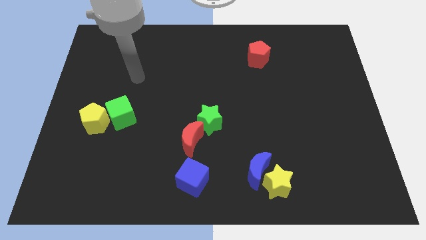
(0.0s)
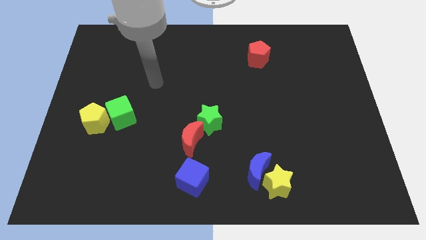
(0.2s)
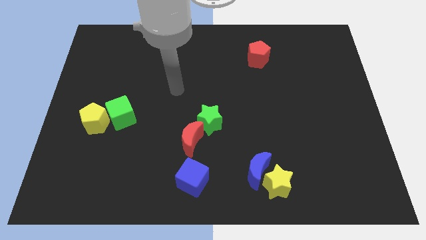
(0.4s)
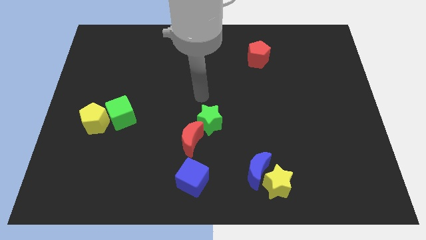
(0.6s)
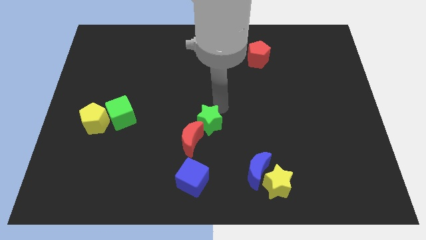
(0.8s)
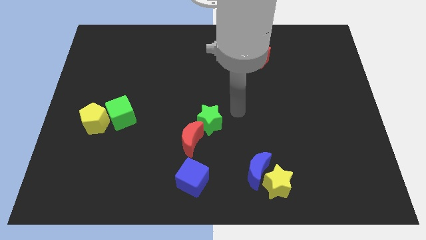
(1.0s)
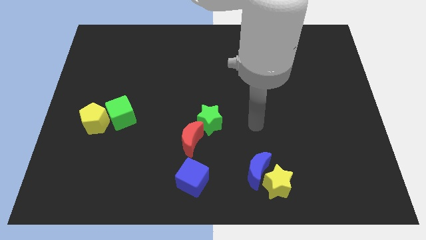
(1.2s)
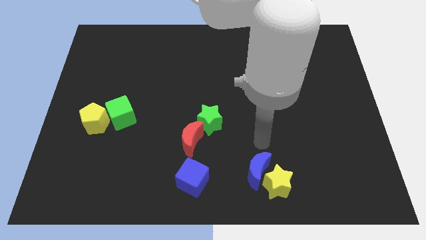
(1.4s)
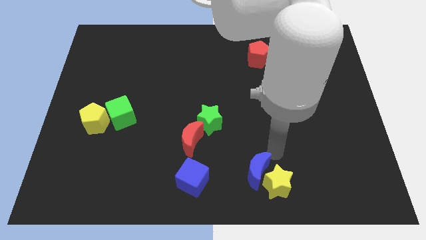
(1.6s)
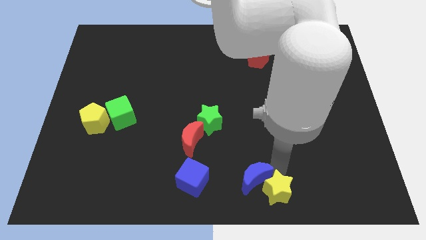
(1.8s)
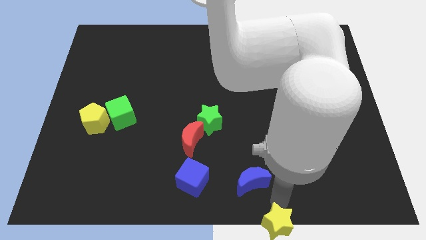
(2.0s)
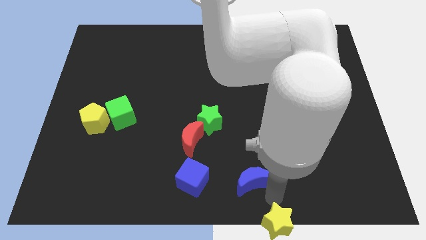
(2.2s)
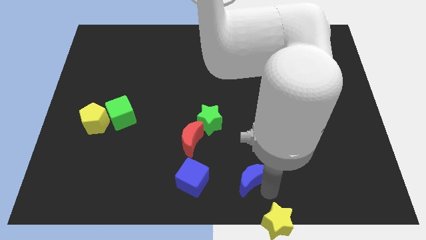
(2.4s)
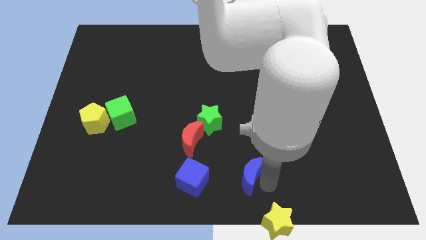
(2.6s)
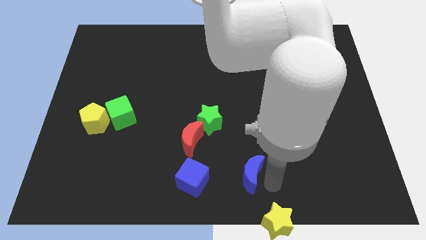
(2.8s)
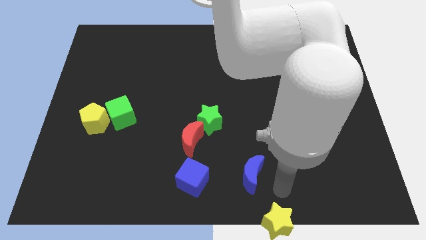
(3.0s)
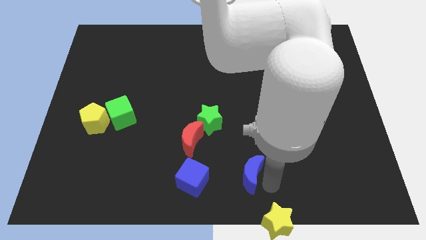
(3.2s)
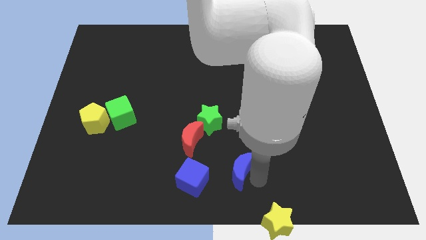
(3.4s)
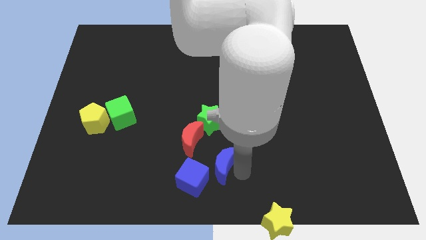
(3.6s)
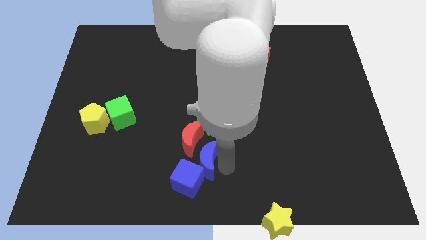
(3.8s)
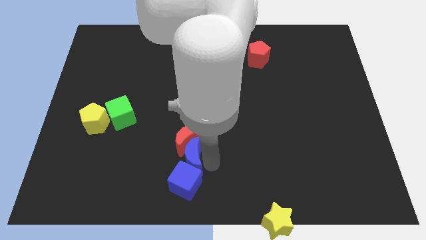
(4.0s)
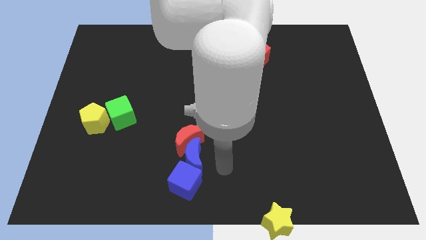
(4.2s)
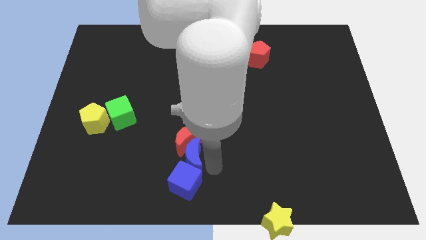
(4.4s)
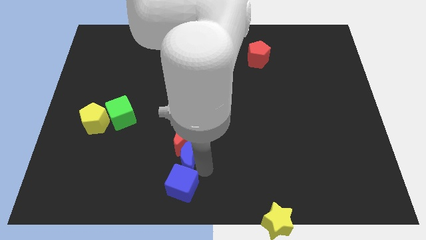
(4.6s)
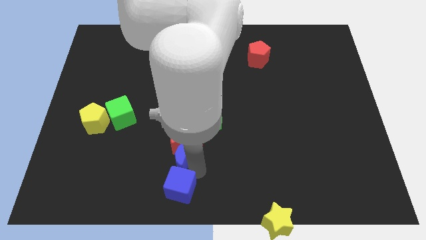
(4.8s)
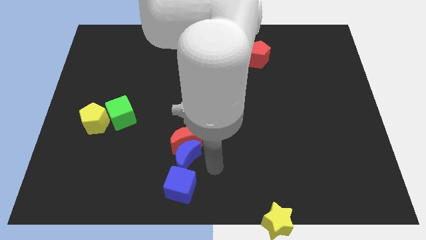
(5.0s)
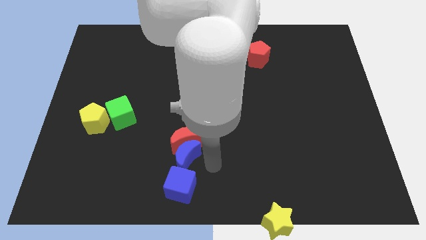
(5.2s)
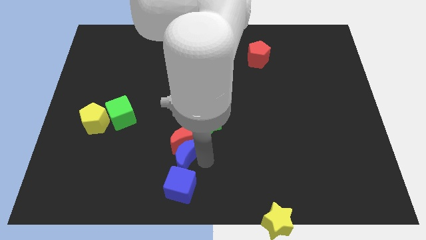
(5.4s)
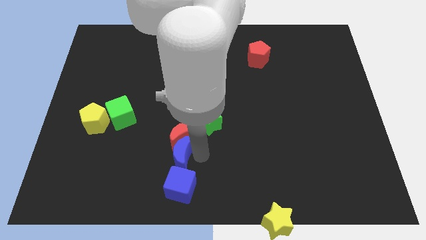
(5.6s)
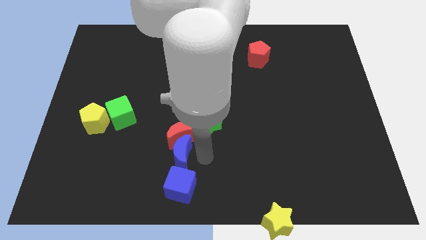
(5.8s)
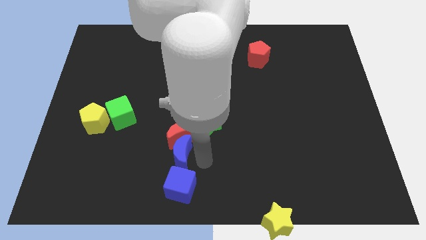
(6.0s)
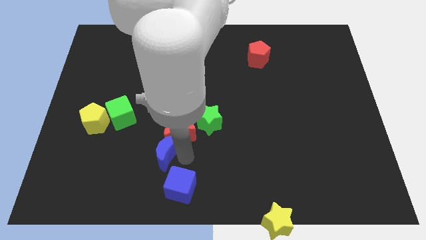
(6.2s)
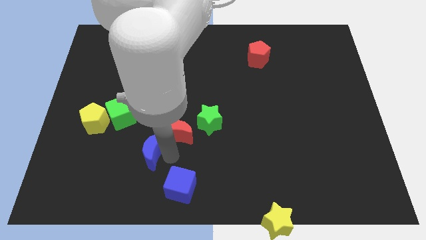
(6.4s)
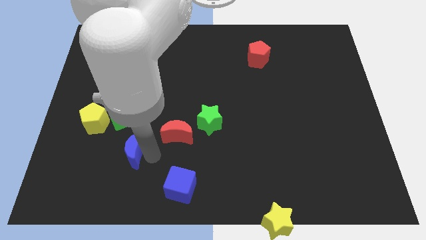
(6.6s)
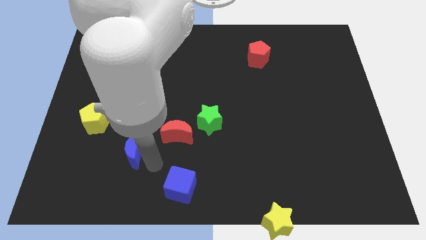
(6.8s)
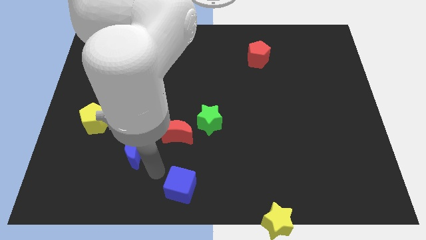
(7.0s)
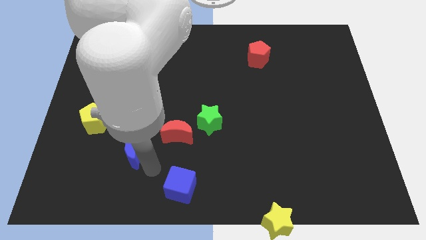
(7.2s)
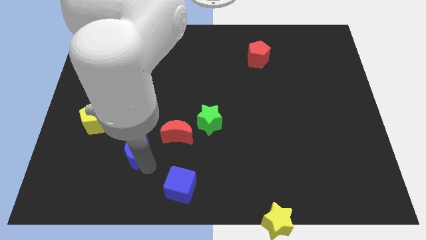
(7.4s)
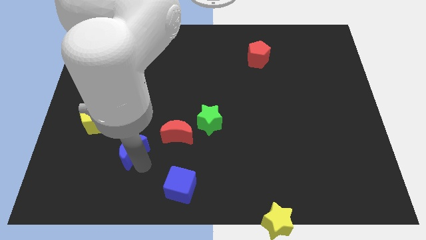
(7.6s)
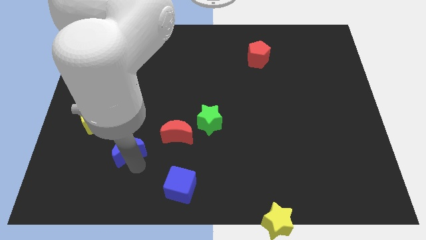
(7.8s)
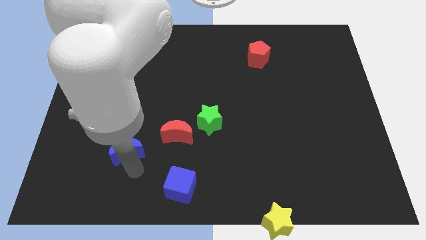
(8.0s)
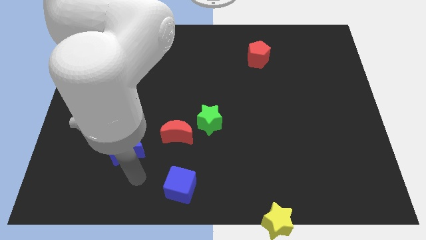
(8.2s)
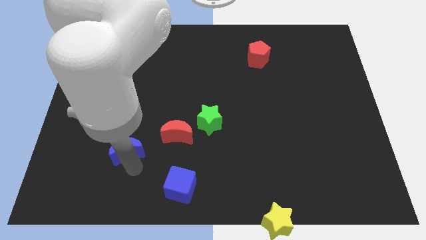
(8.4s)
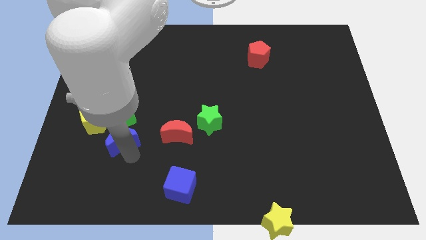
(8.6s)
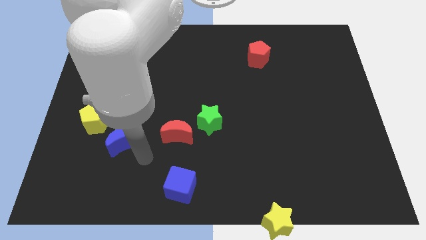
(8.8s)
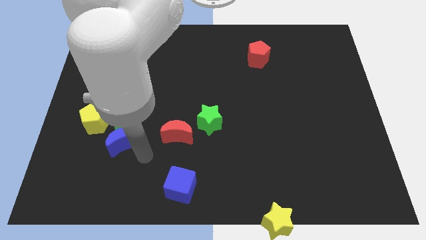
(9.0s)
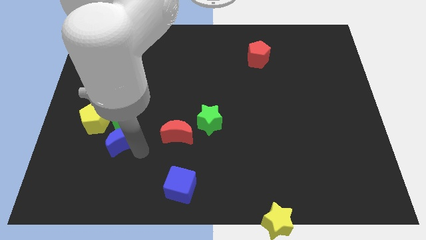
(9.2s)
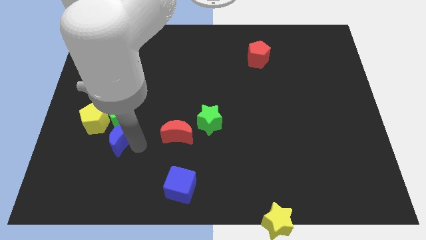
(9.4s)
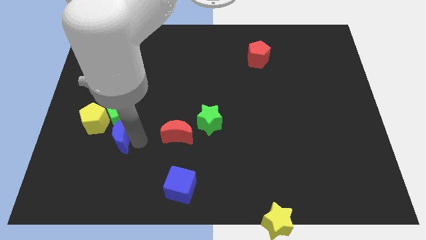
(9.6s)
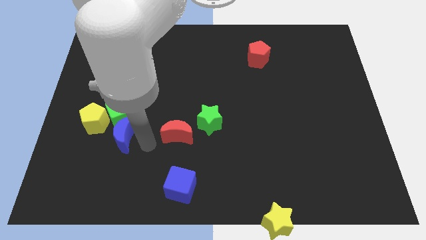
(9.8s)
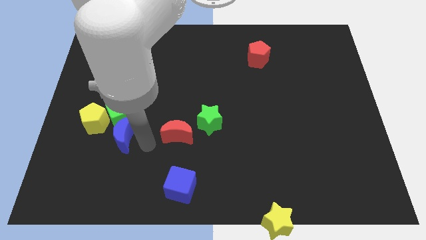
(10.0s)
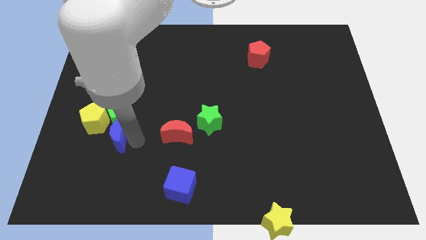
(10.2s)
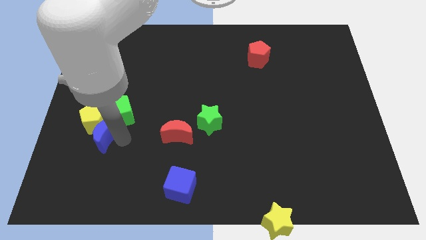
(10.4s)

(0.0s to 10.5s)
put the blue moon to the yellow pentagon

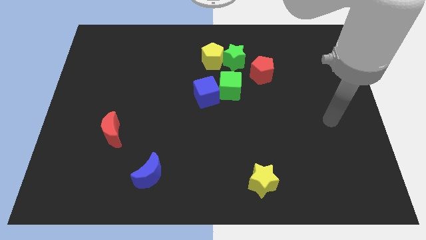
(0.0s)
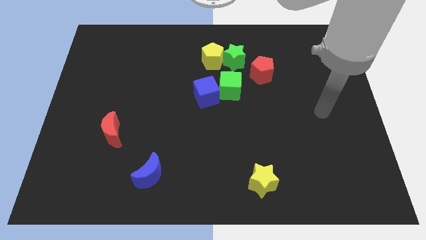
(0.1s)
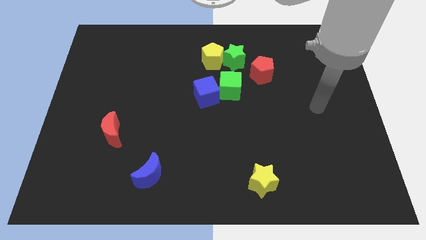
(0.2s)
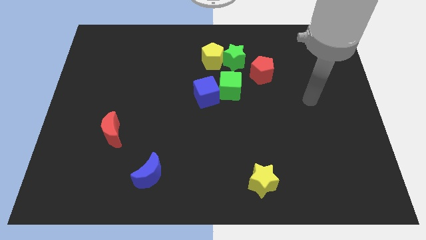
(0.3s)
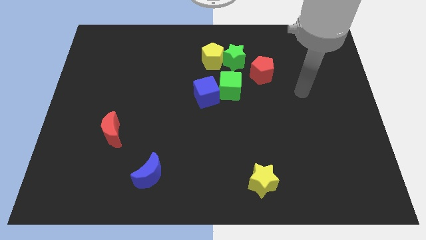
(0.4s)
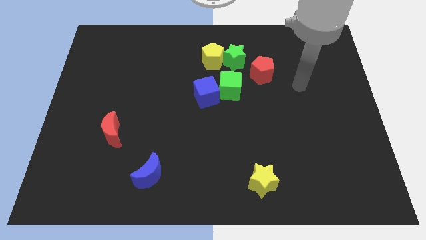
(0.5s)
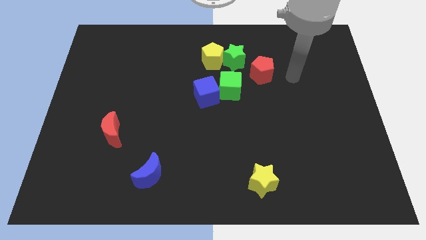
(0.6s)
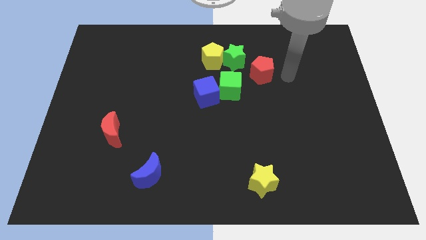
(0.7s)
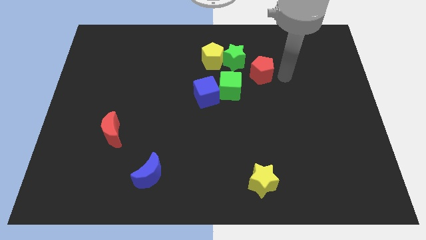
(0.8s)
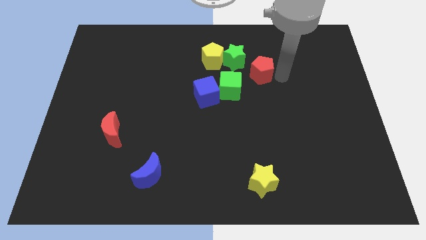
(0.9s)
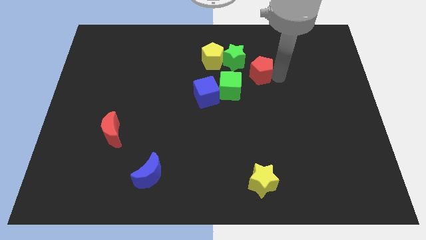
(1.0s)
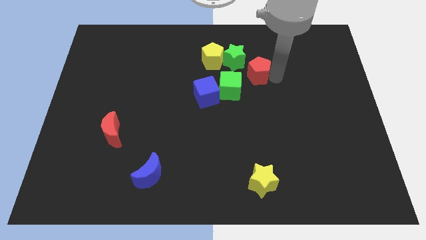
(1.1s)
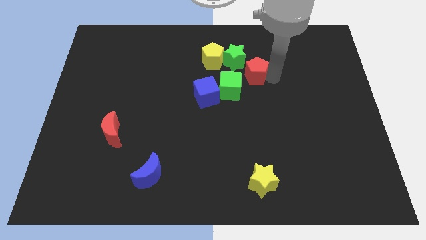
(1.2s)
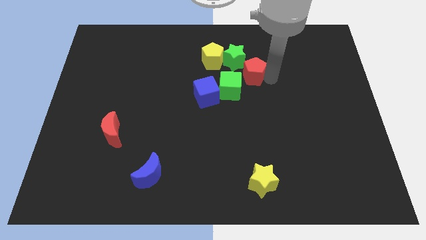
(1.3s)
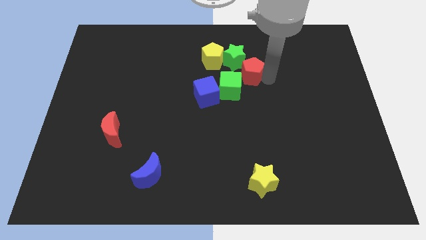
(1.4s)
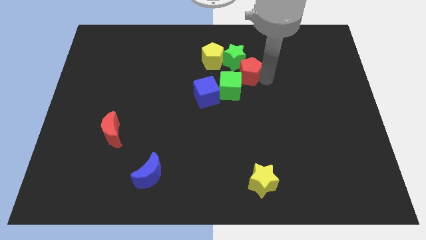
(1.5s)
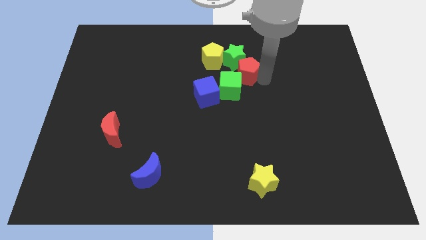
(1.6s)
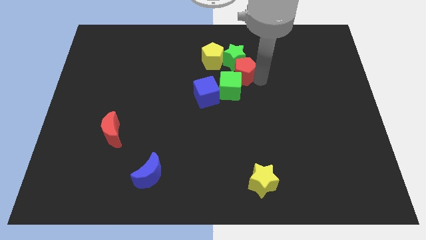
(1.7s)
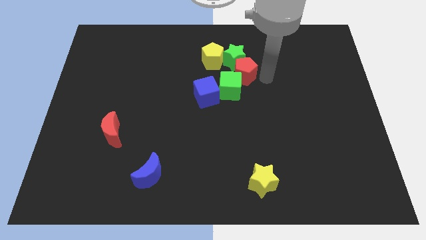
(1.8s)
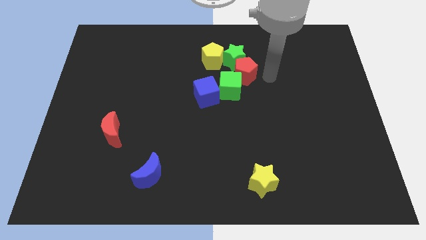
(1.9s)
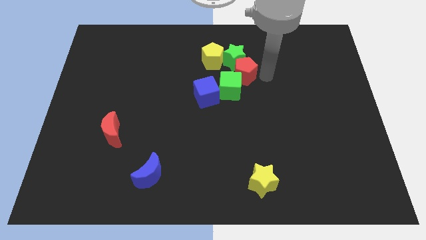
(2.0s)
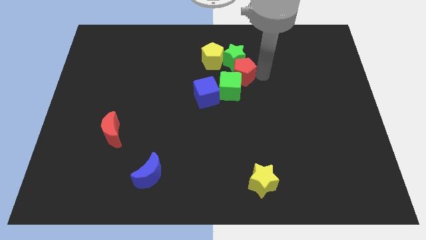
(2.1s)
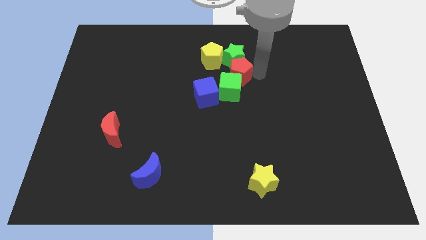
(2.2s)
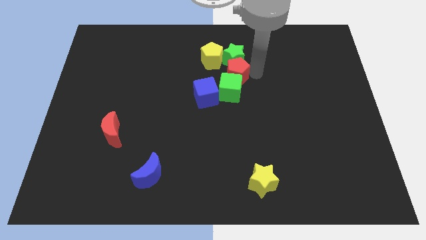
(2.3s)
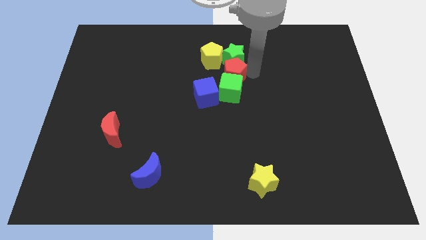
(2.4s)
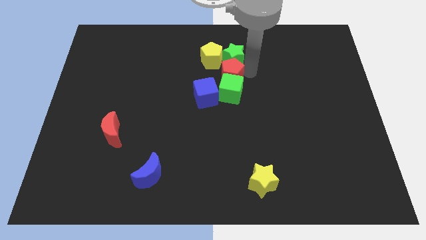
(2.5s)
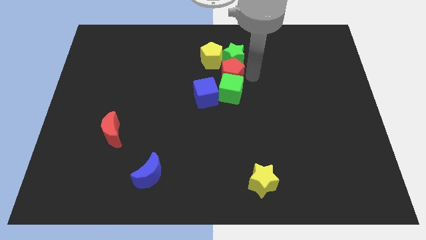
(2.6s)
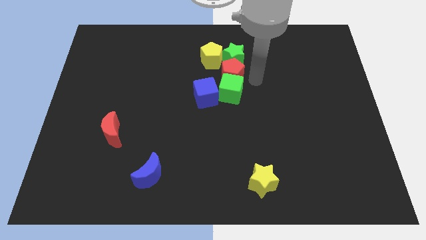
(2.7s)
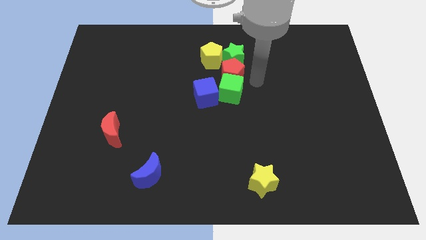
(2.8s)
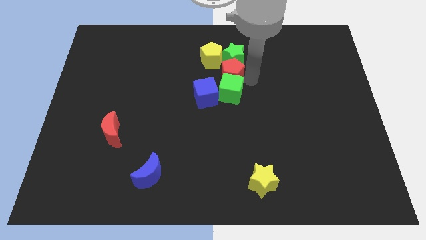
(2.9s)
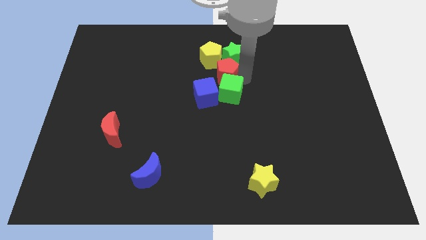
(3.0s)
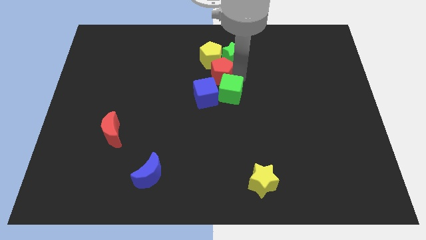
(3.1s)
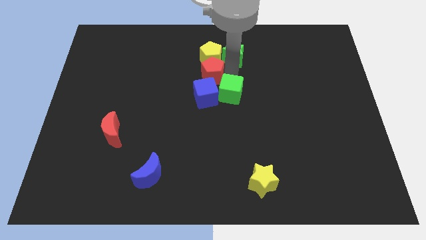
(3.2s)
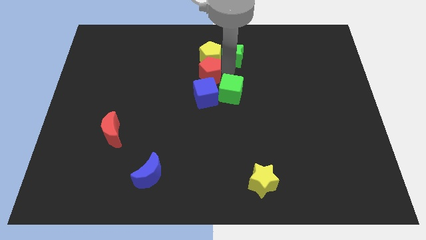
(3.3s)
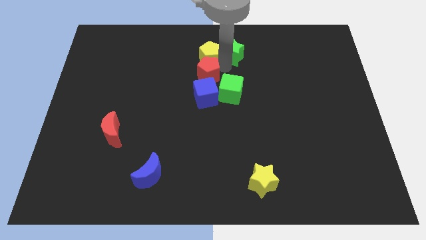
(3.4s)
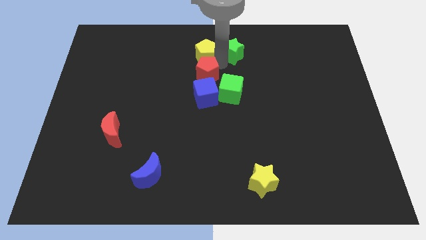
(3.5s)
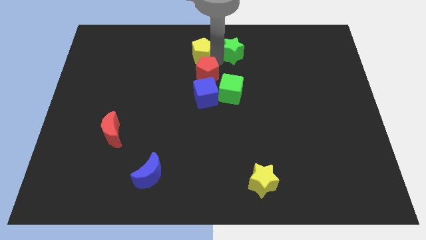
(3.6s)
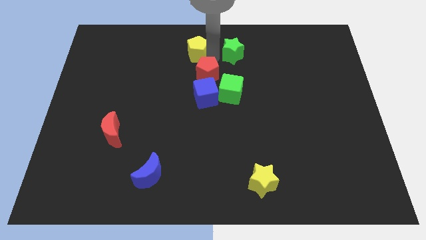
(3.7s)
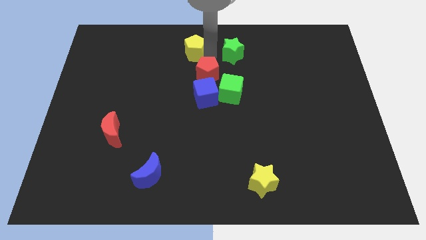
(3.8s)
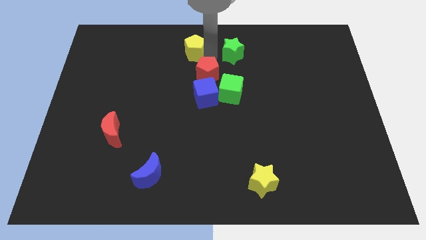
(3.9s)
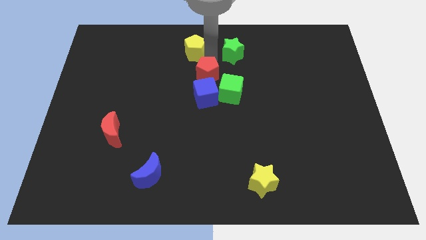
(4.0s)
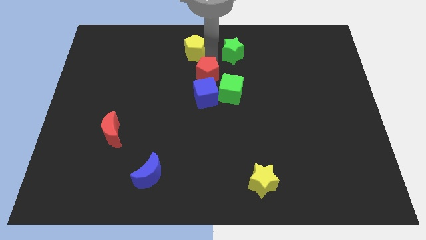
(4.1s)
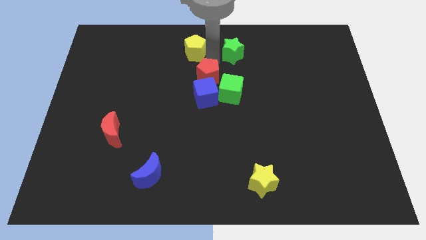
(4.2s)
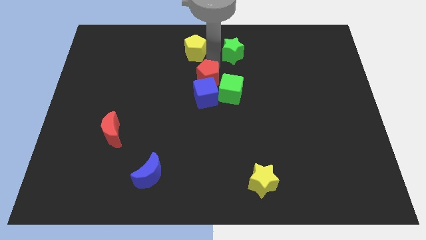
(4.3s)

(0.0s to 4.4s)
push the red pentagon close to the blue cube
